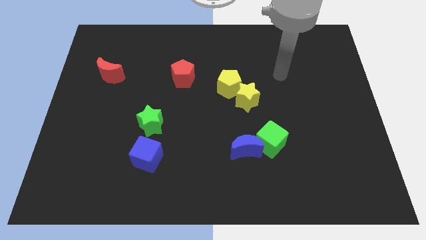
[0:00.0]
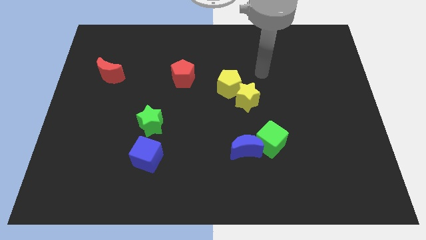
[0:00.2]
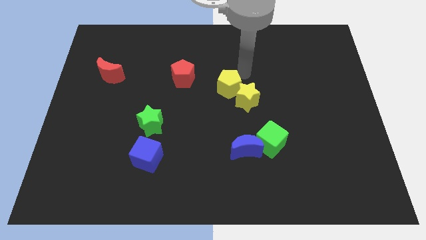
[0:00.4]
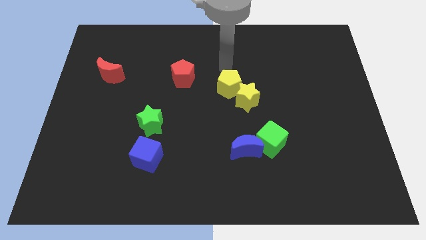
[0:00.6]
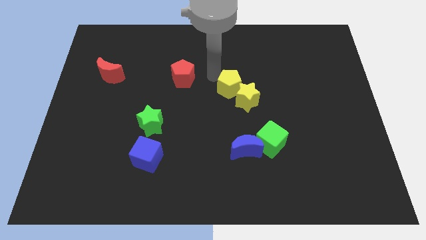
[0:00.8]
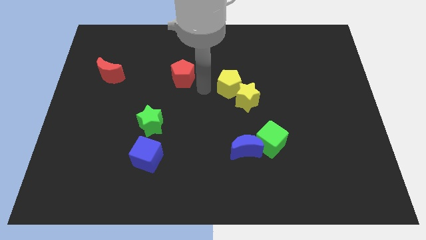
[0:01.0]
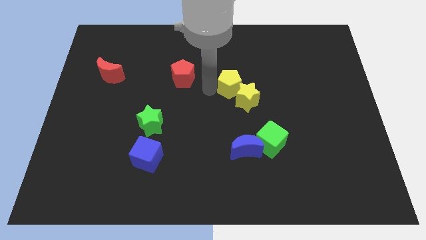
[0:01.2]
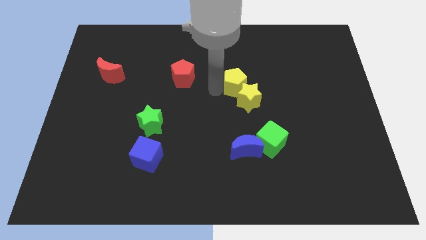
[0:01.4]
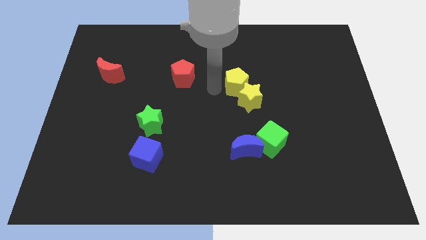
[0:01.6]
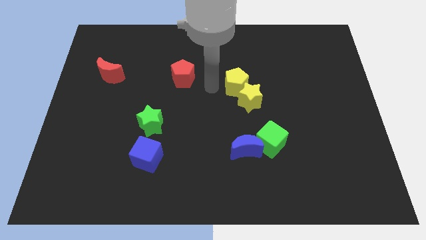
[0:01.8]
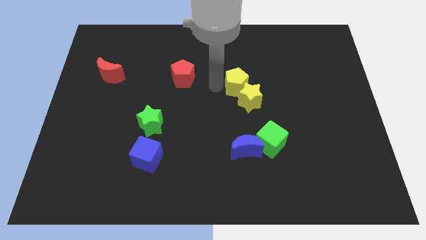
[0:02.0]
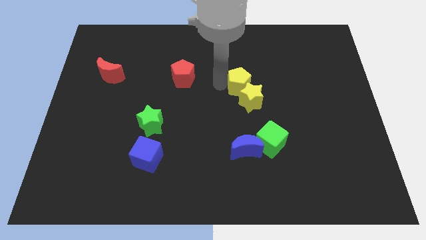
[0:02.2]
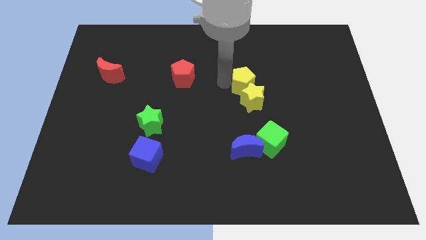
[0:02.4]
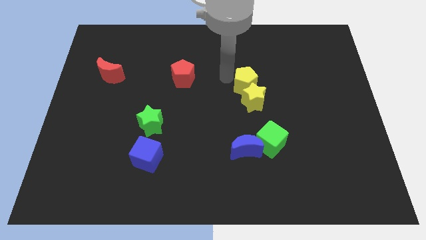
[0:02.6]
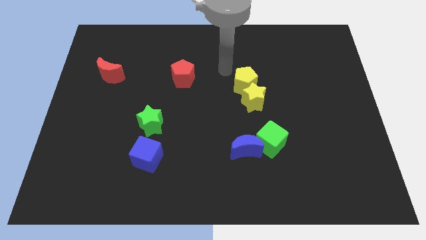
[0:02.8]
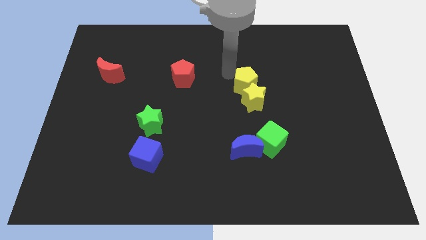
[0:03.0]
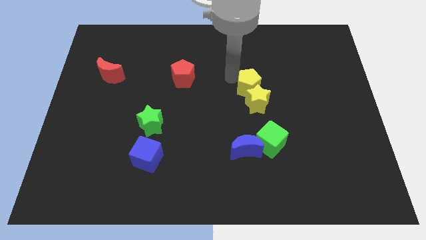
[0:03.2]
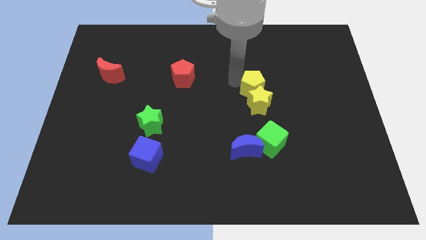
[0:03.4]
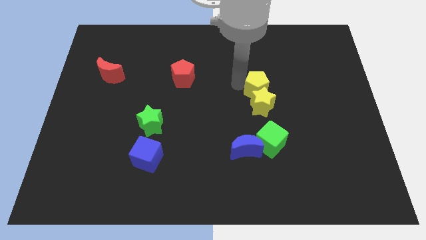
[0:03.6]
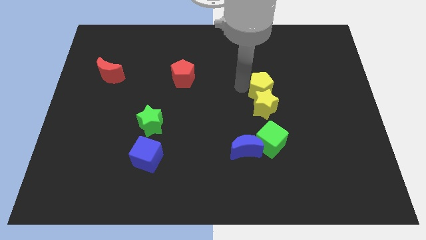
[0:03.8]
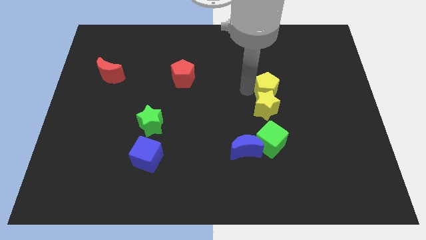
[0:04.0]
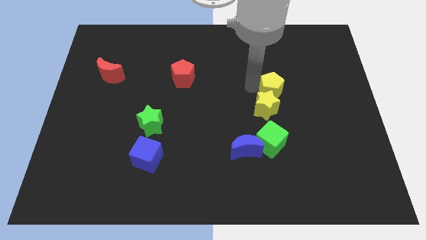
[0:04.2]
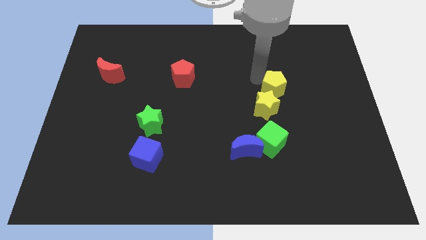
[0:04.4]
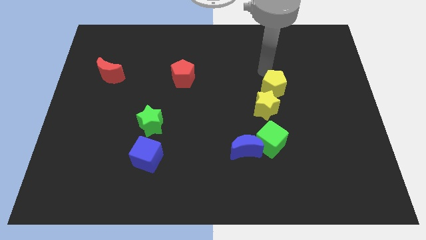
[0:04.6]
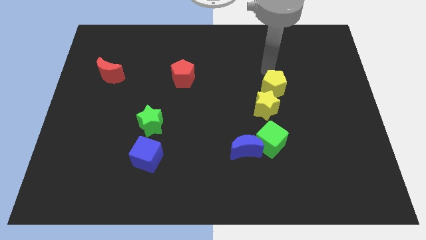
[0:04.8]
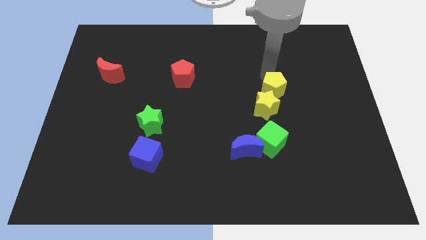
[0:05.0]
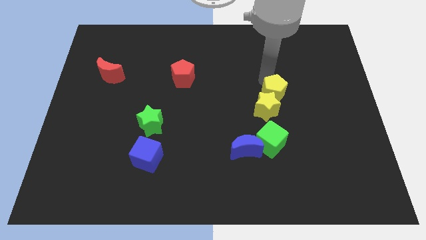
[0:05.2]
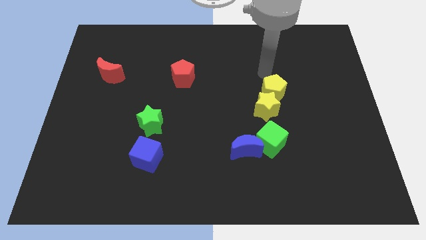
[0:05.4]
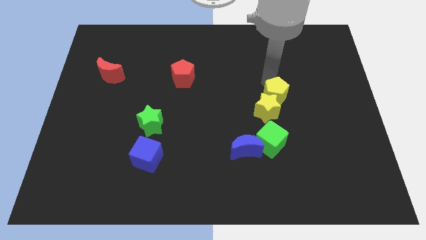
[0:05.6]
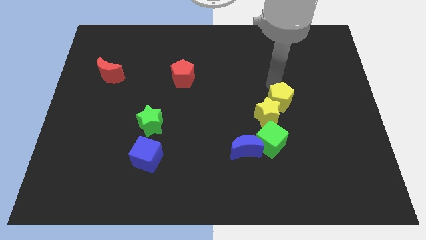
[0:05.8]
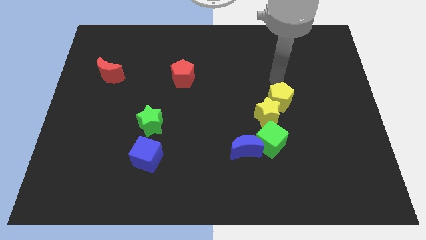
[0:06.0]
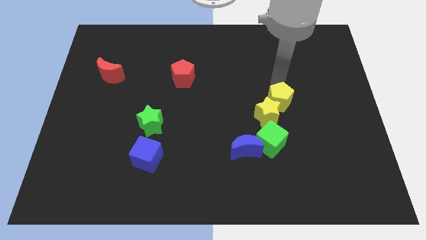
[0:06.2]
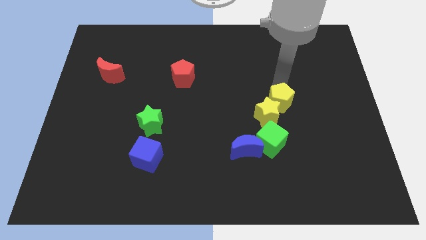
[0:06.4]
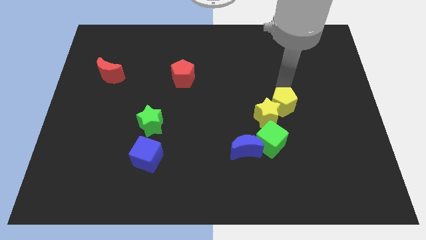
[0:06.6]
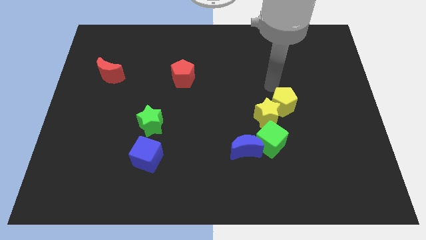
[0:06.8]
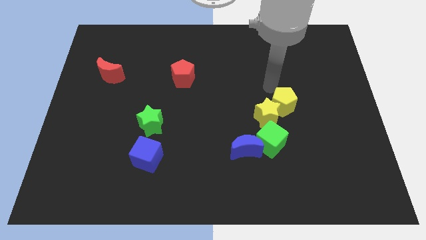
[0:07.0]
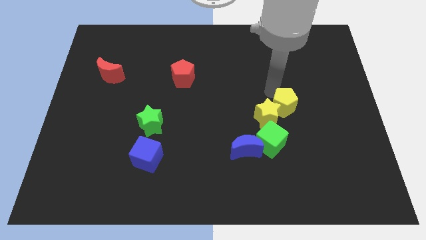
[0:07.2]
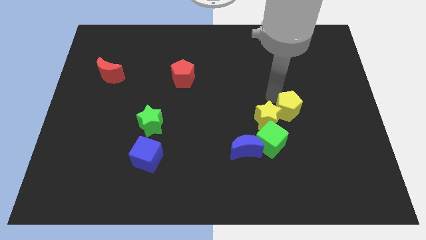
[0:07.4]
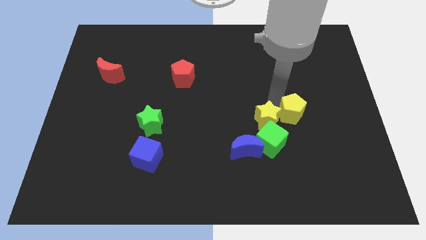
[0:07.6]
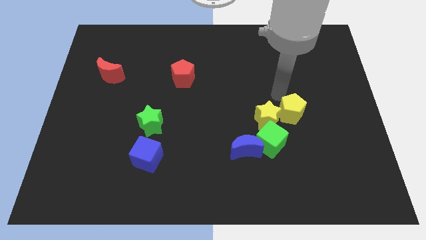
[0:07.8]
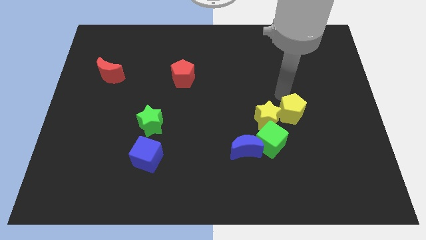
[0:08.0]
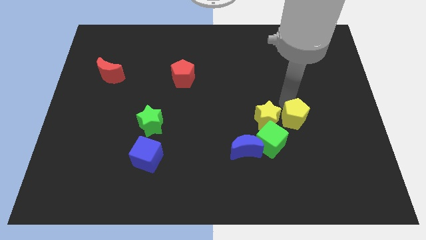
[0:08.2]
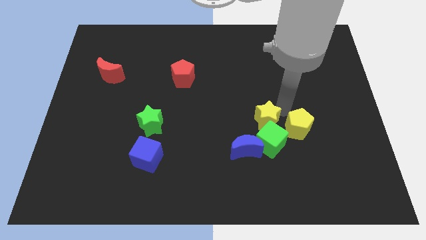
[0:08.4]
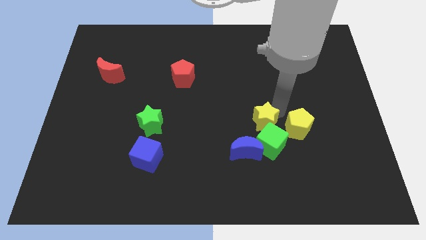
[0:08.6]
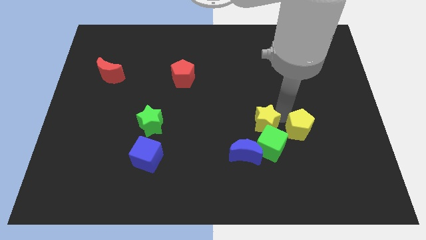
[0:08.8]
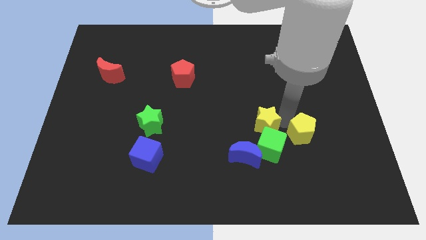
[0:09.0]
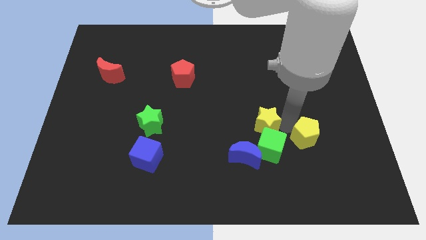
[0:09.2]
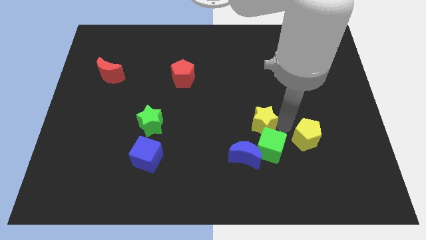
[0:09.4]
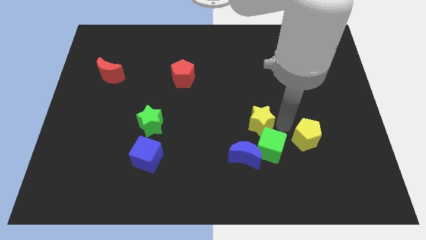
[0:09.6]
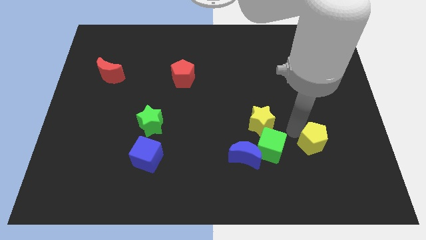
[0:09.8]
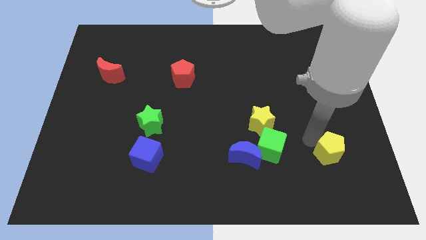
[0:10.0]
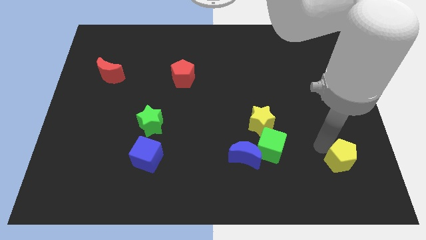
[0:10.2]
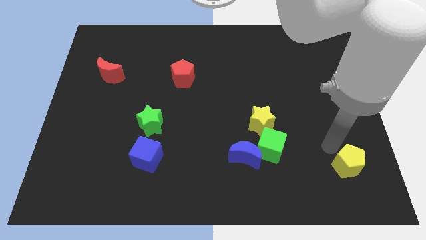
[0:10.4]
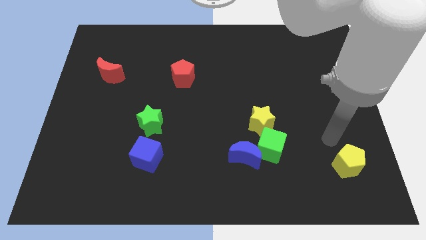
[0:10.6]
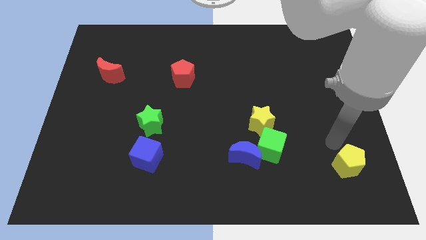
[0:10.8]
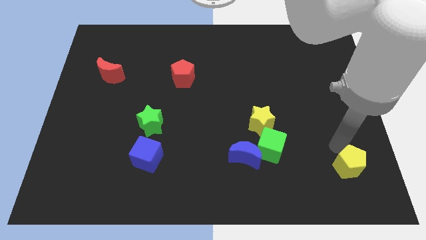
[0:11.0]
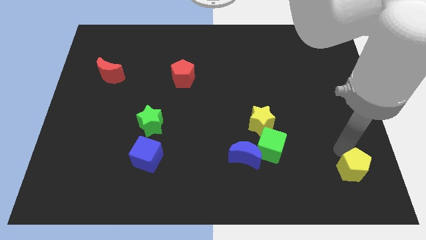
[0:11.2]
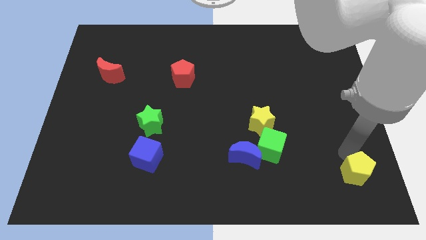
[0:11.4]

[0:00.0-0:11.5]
put the yellow pentagon to the bottom right
